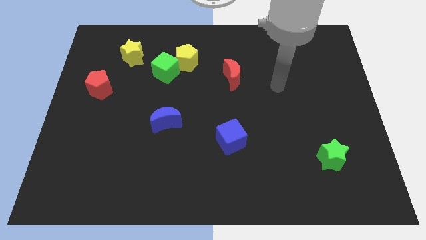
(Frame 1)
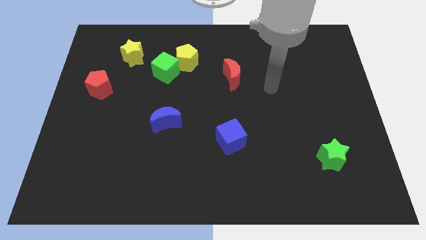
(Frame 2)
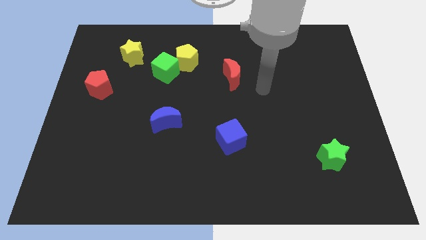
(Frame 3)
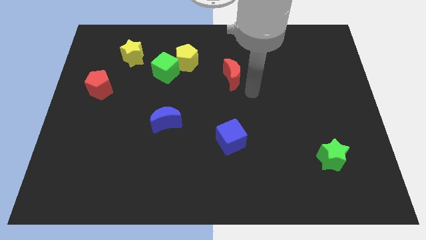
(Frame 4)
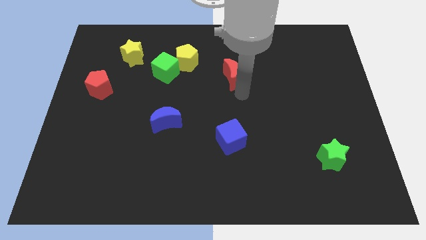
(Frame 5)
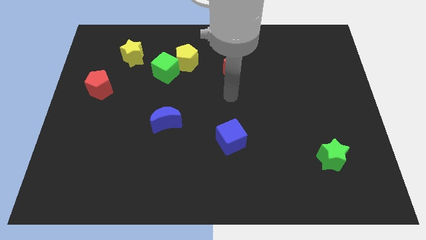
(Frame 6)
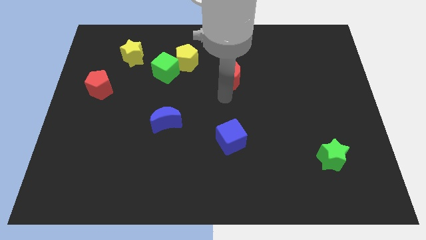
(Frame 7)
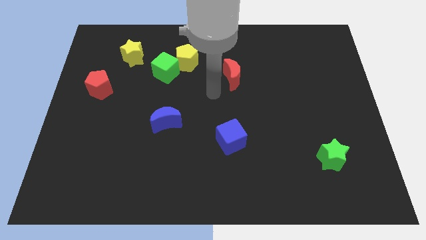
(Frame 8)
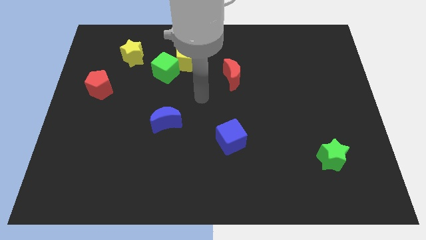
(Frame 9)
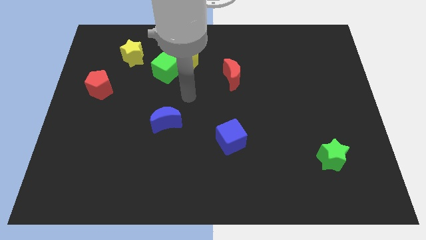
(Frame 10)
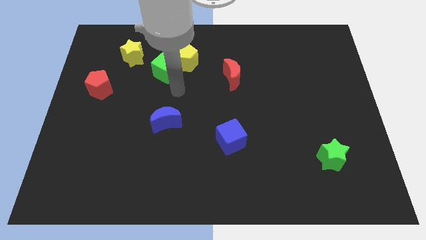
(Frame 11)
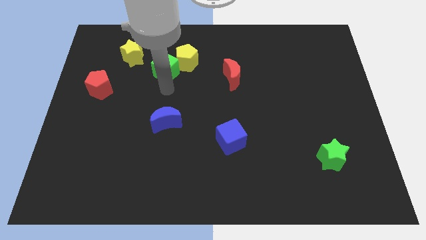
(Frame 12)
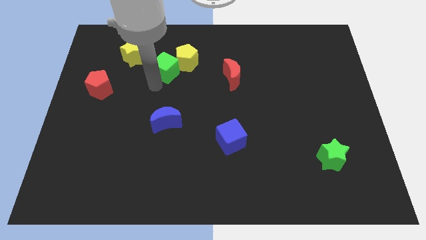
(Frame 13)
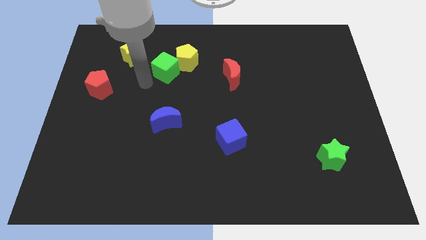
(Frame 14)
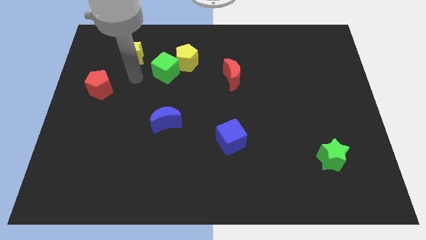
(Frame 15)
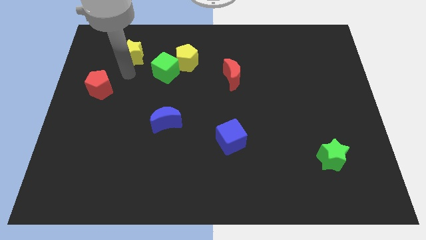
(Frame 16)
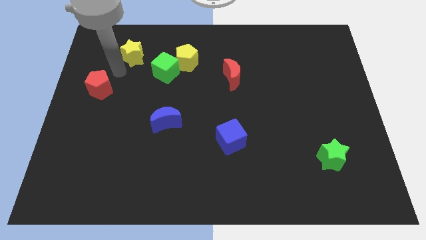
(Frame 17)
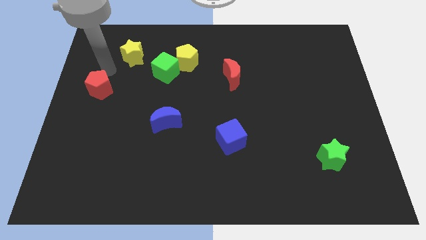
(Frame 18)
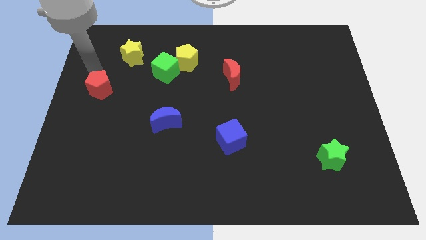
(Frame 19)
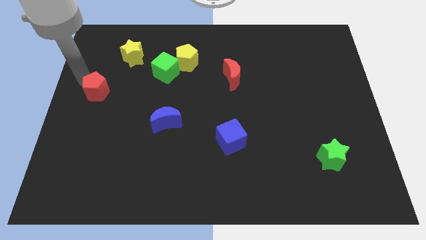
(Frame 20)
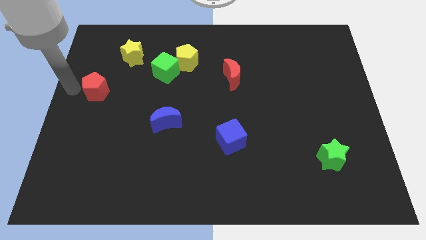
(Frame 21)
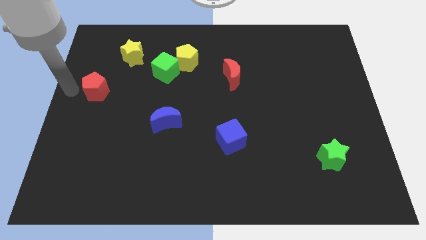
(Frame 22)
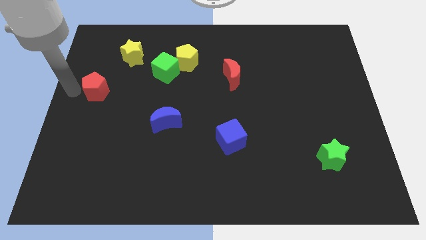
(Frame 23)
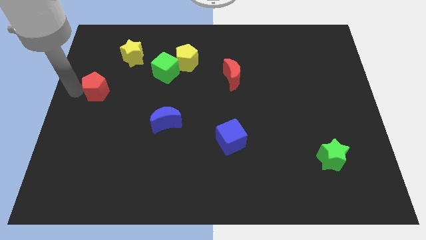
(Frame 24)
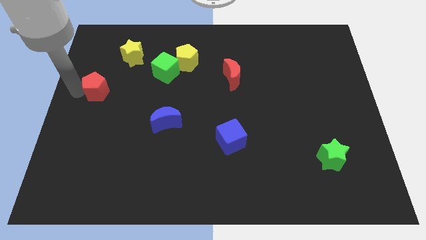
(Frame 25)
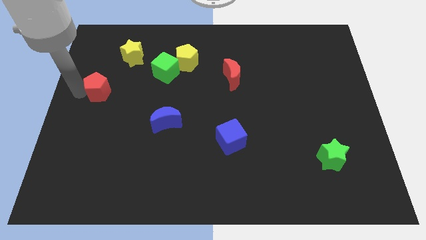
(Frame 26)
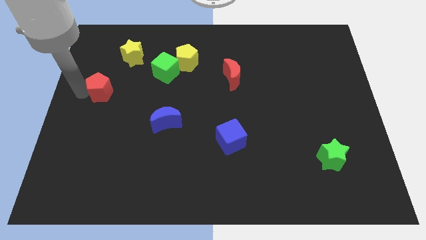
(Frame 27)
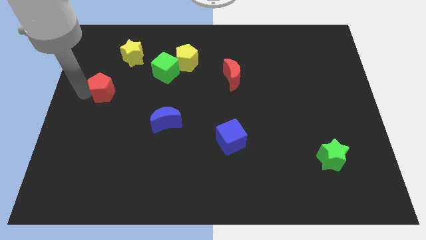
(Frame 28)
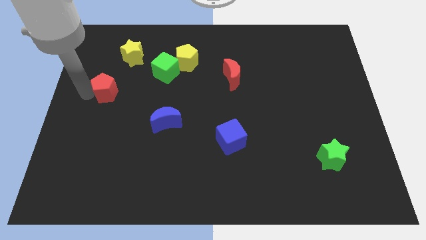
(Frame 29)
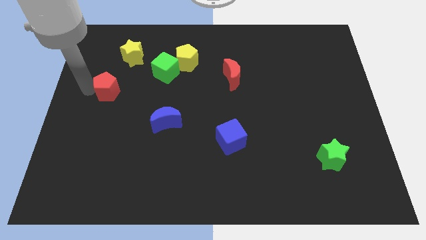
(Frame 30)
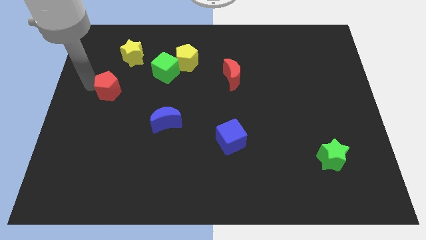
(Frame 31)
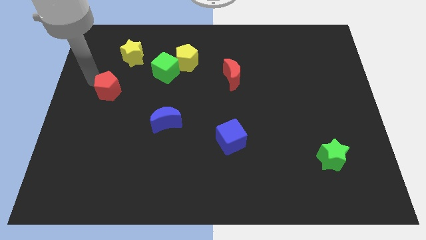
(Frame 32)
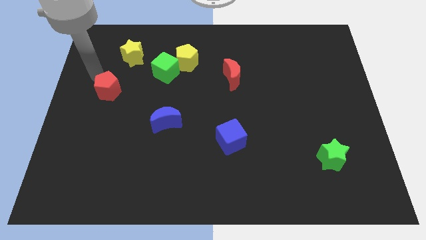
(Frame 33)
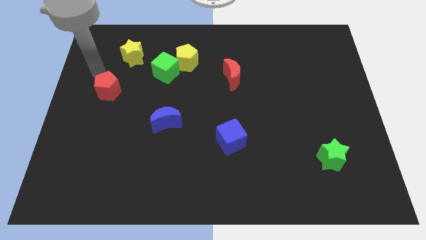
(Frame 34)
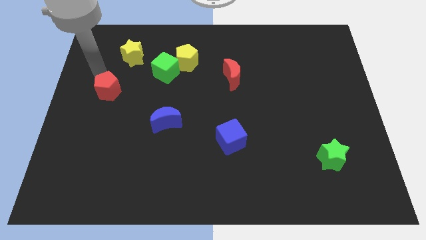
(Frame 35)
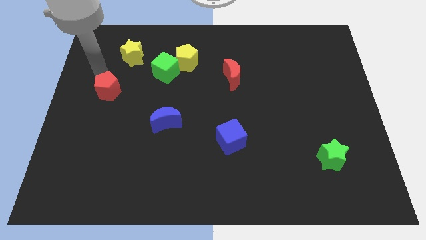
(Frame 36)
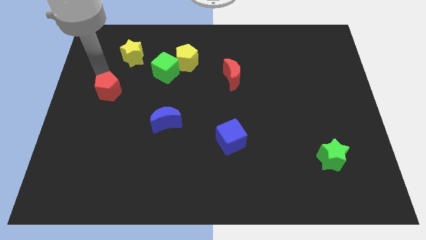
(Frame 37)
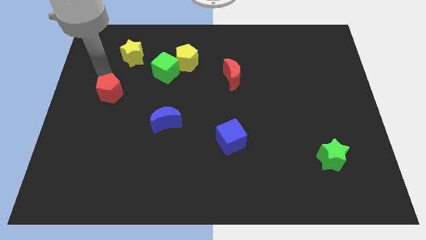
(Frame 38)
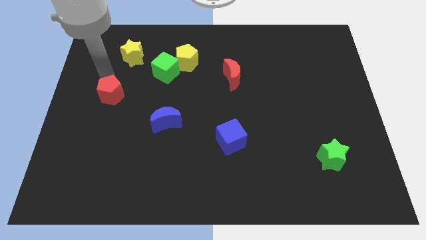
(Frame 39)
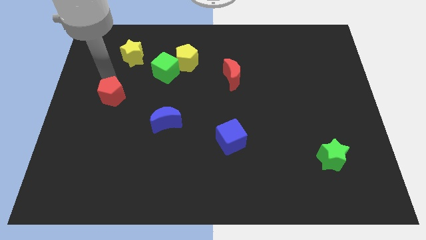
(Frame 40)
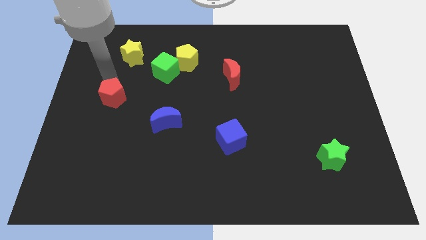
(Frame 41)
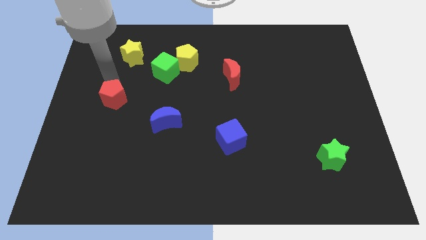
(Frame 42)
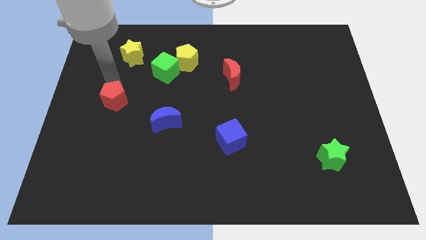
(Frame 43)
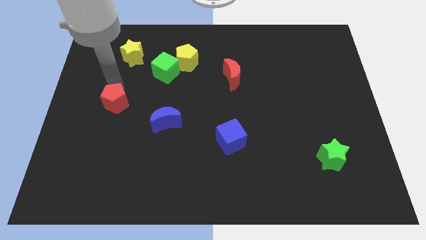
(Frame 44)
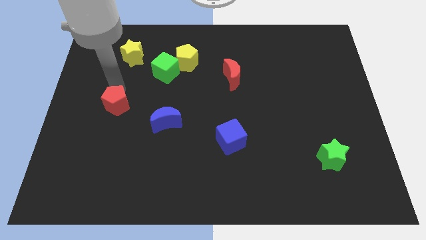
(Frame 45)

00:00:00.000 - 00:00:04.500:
slightly slide the red pentagon diagonally down and to the right

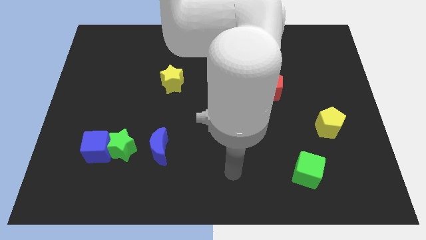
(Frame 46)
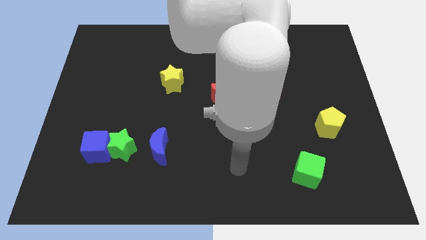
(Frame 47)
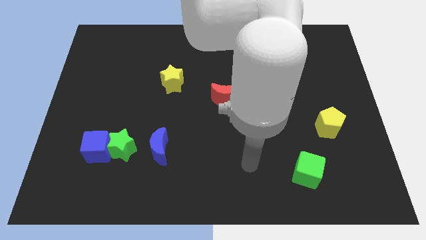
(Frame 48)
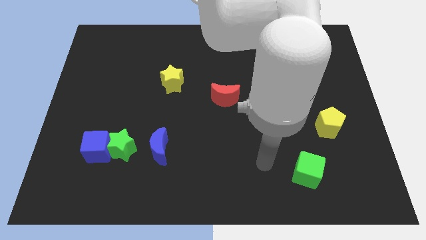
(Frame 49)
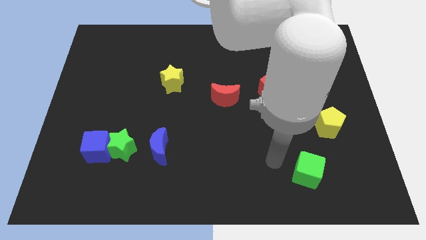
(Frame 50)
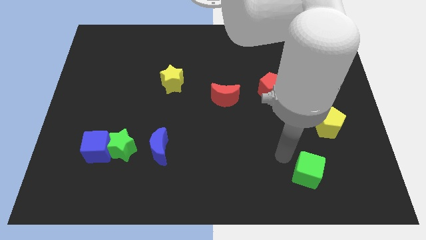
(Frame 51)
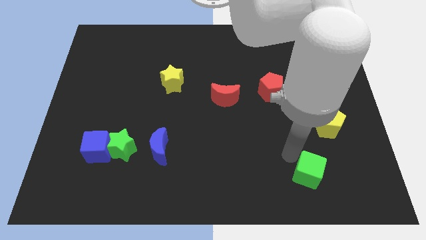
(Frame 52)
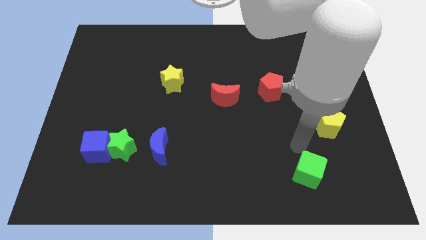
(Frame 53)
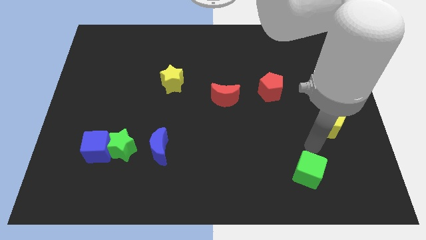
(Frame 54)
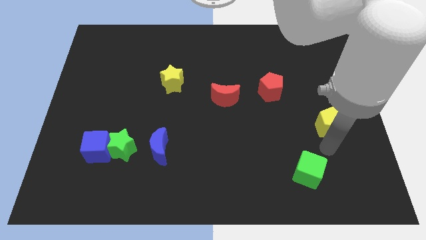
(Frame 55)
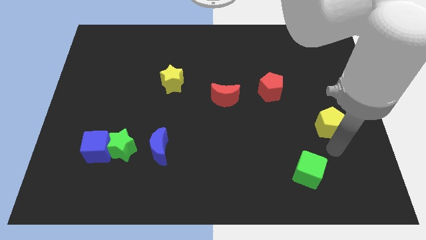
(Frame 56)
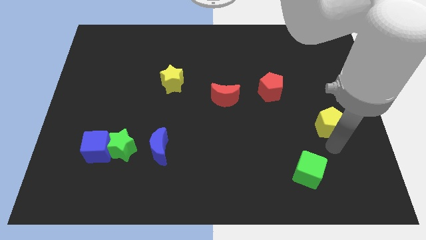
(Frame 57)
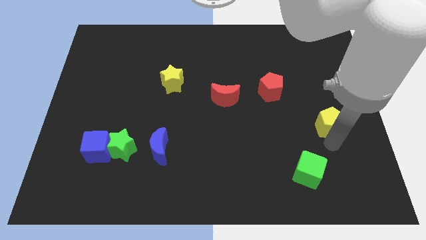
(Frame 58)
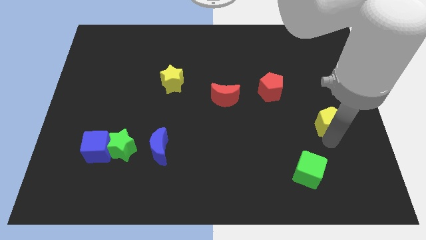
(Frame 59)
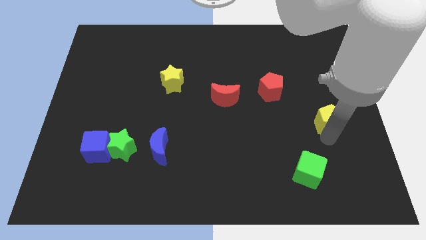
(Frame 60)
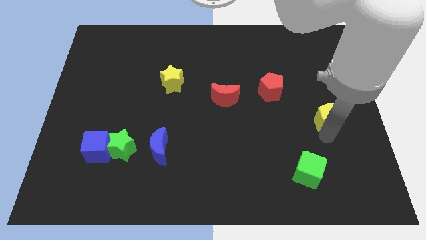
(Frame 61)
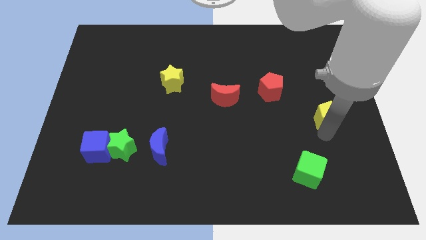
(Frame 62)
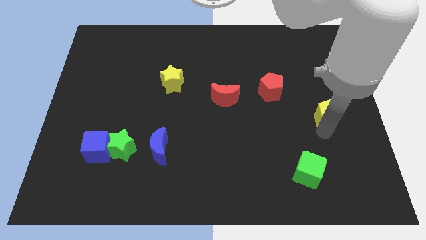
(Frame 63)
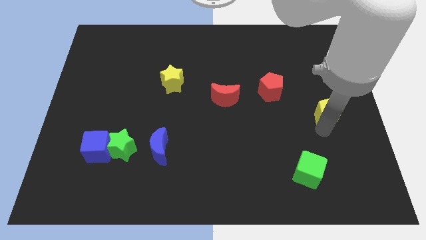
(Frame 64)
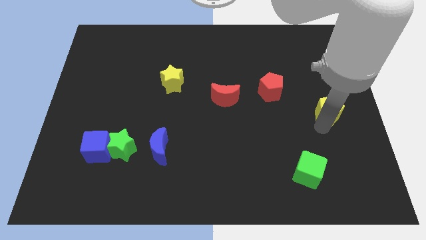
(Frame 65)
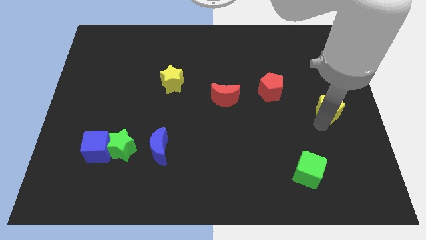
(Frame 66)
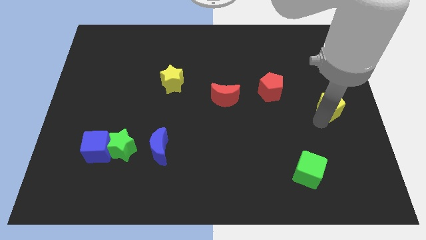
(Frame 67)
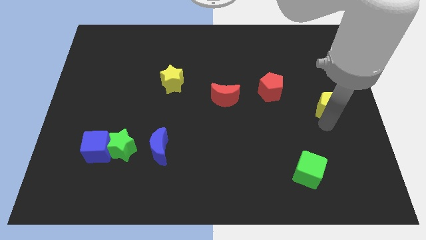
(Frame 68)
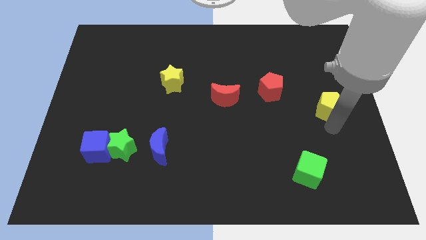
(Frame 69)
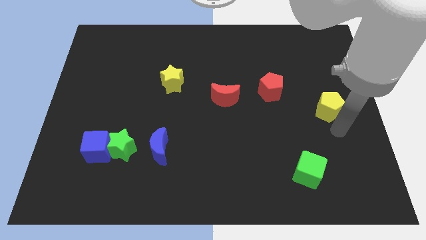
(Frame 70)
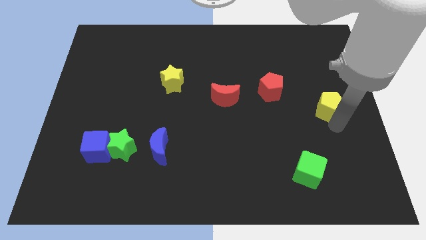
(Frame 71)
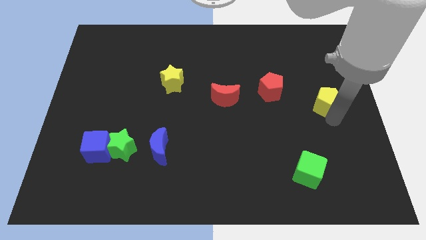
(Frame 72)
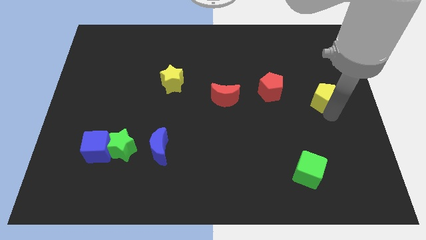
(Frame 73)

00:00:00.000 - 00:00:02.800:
move the yellow pentagon up a little

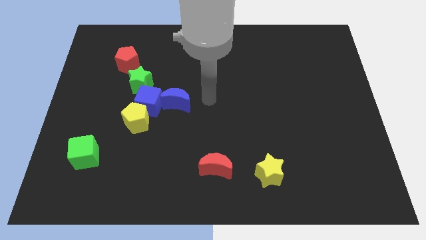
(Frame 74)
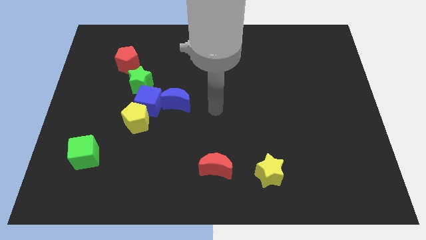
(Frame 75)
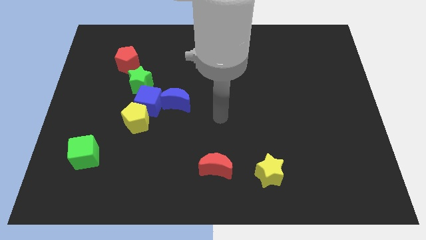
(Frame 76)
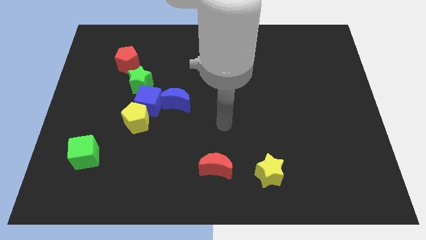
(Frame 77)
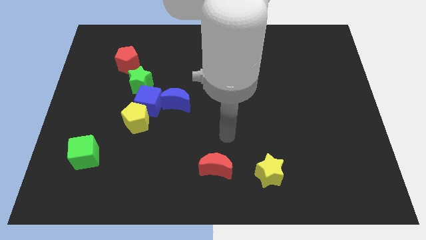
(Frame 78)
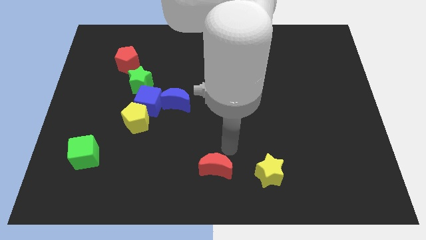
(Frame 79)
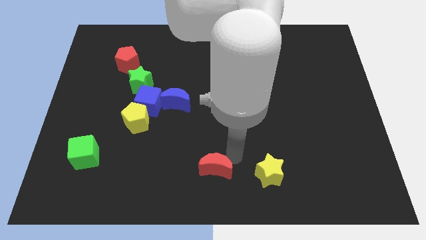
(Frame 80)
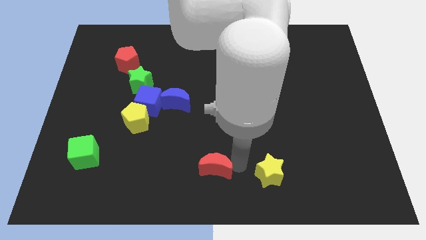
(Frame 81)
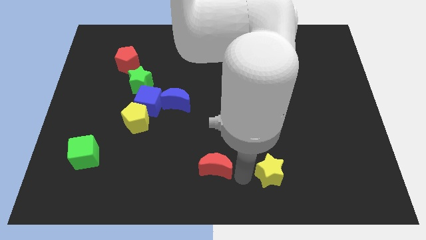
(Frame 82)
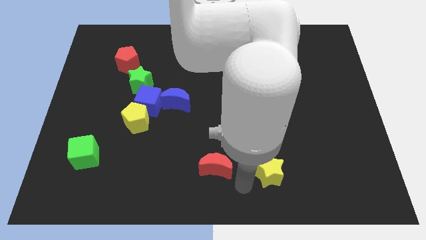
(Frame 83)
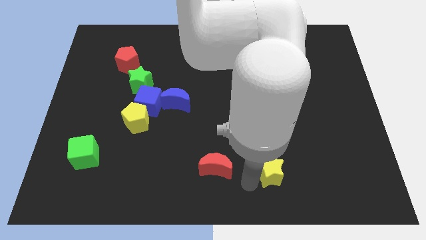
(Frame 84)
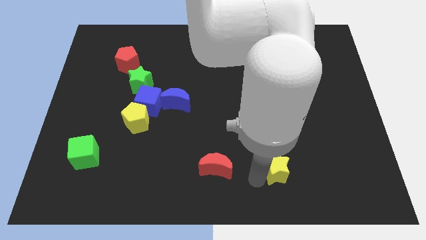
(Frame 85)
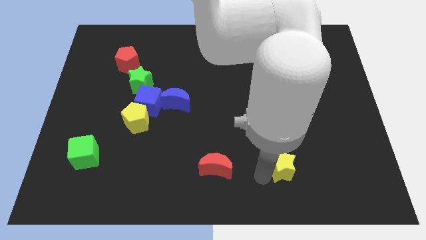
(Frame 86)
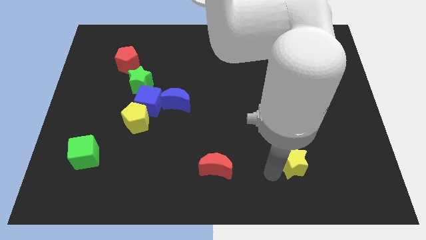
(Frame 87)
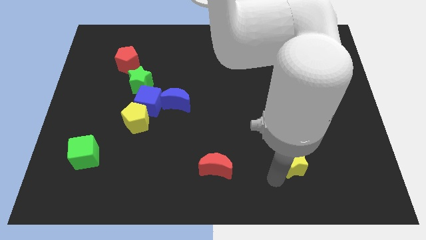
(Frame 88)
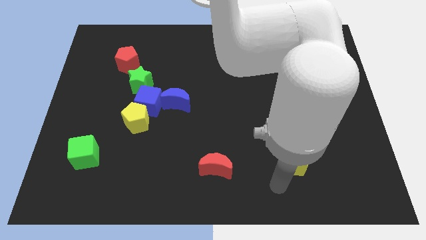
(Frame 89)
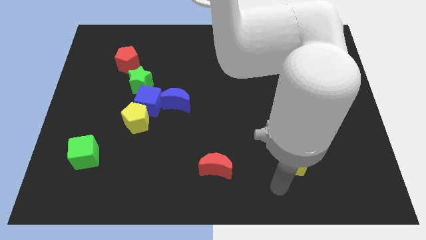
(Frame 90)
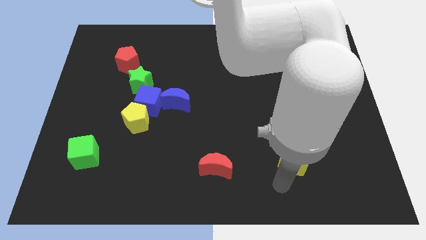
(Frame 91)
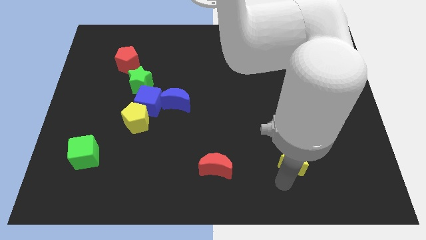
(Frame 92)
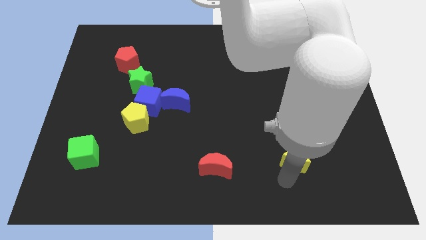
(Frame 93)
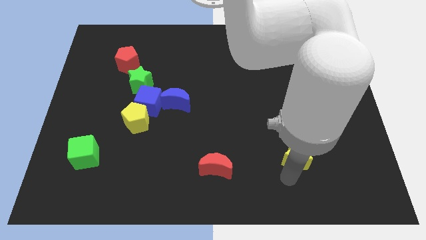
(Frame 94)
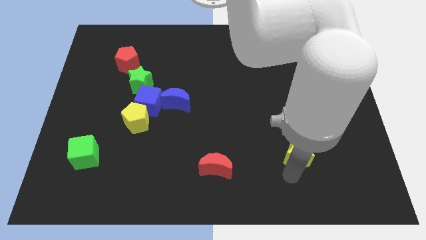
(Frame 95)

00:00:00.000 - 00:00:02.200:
slightly move the yellow star upwards and then right
